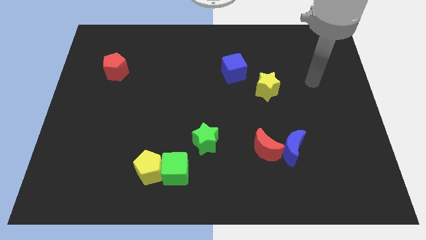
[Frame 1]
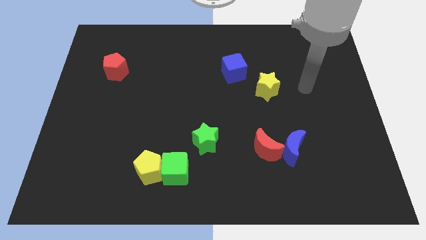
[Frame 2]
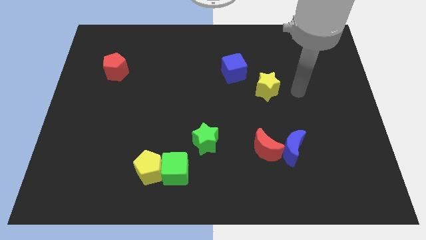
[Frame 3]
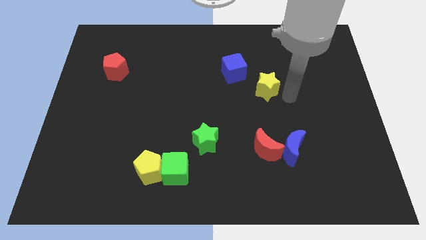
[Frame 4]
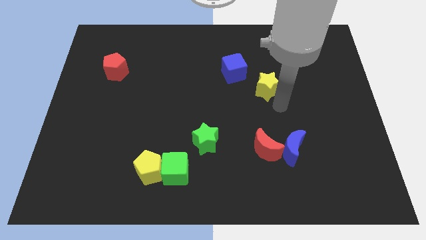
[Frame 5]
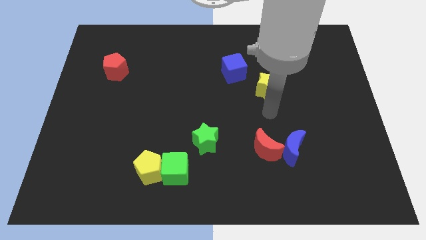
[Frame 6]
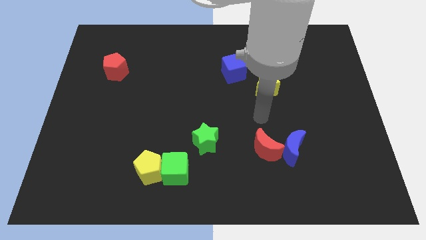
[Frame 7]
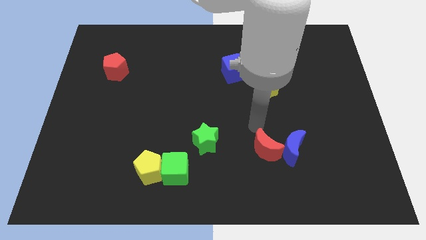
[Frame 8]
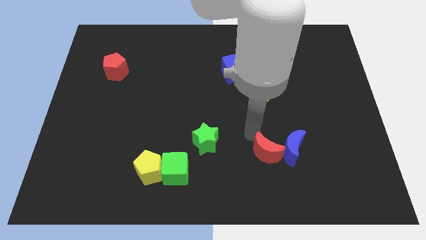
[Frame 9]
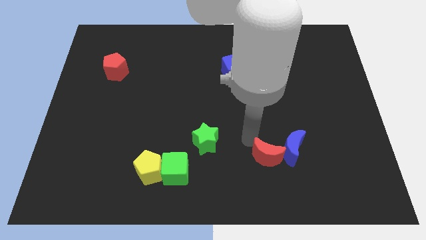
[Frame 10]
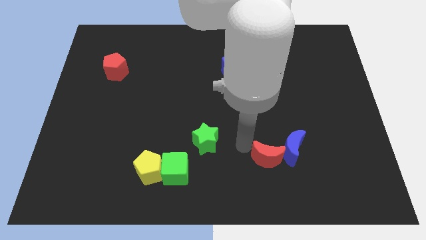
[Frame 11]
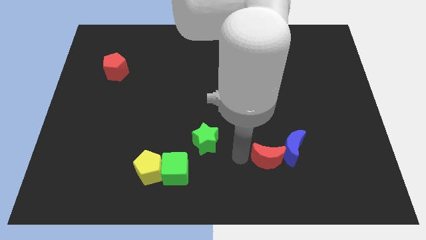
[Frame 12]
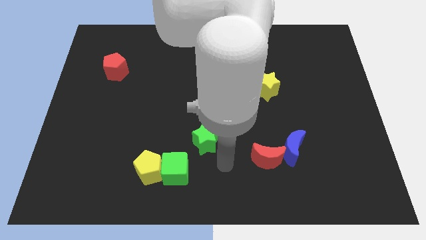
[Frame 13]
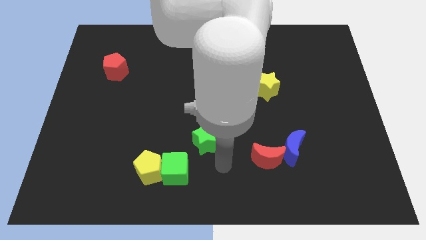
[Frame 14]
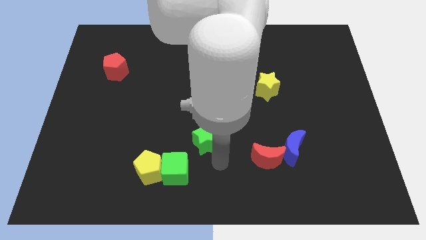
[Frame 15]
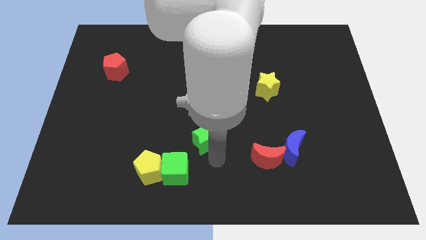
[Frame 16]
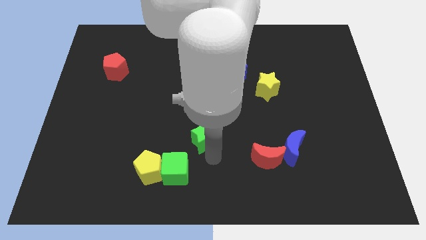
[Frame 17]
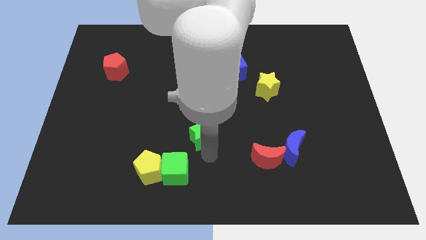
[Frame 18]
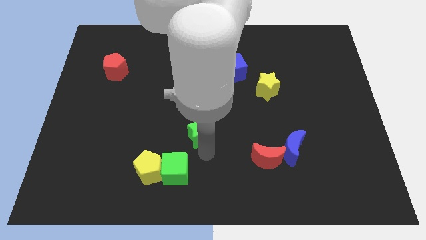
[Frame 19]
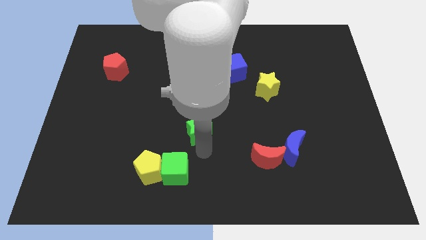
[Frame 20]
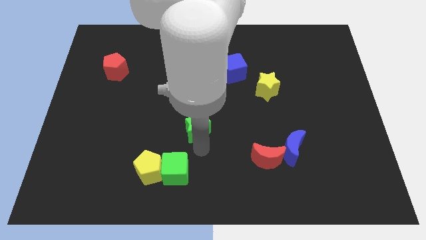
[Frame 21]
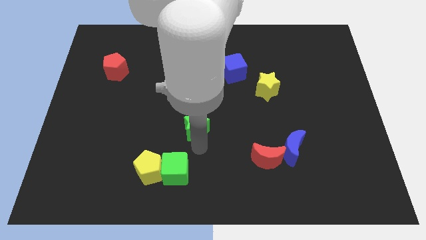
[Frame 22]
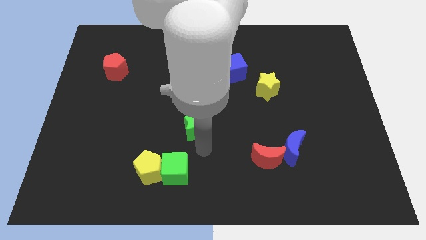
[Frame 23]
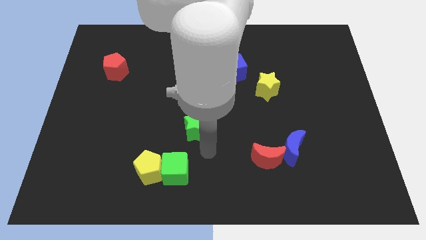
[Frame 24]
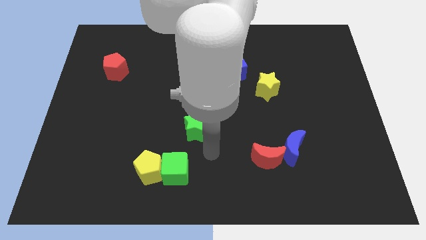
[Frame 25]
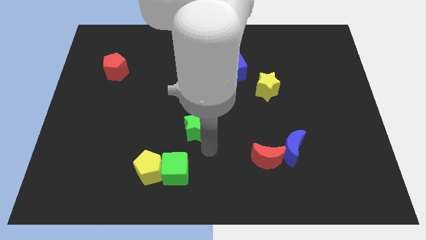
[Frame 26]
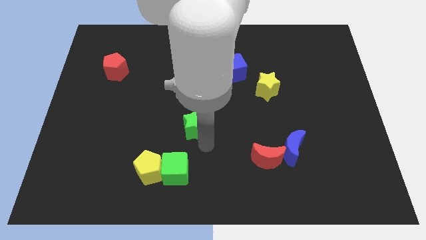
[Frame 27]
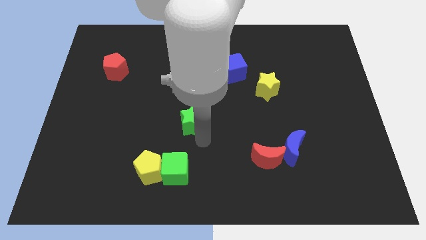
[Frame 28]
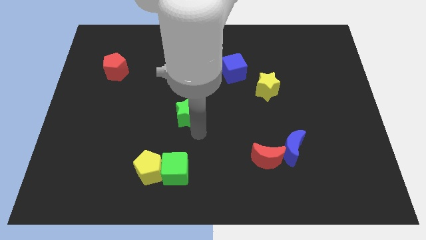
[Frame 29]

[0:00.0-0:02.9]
move the green star a little bit diagonally upwards and left

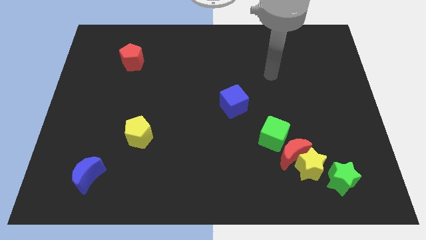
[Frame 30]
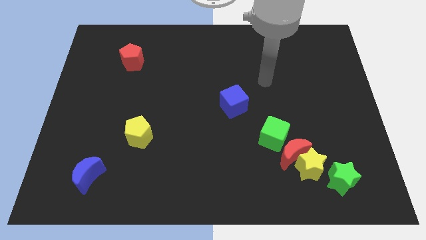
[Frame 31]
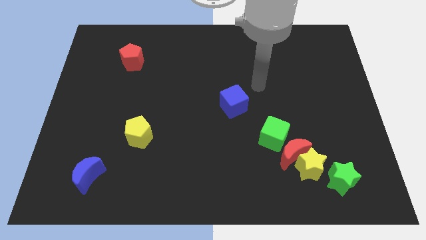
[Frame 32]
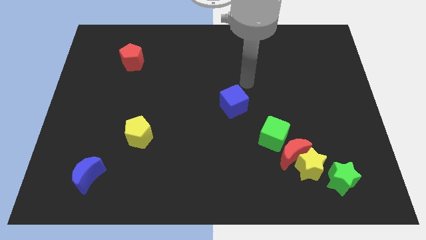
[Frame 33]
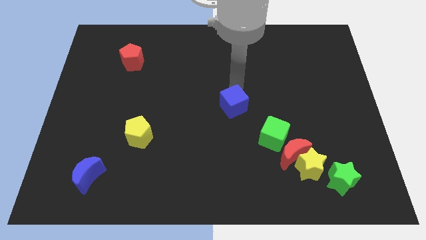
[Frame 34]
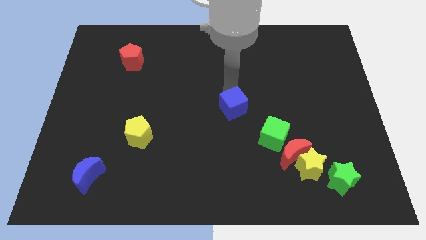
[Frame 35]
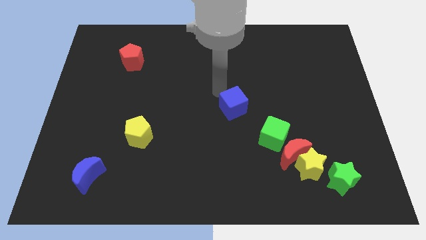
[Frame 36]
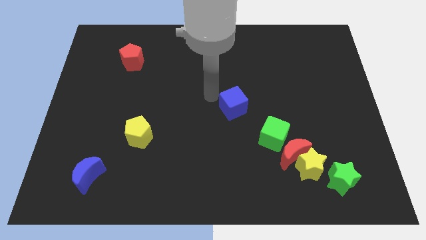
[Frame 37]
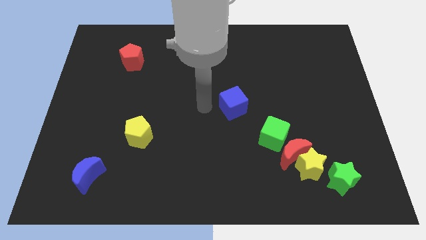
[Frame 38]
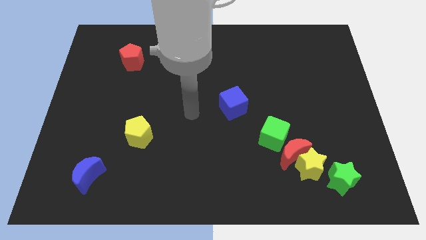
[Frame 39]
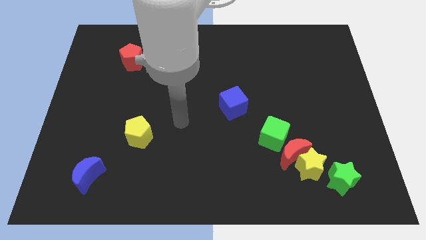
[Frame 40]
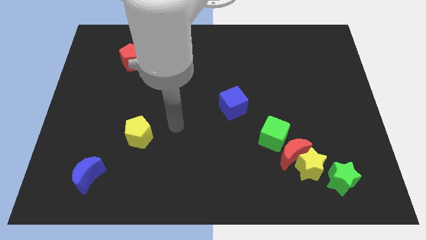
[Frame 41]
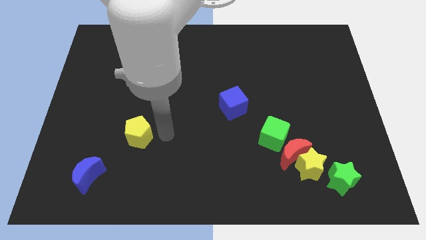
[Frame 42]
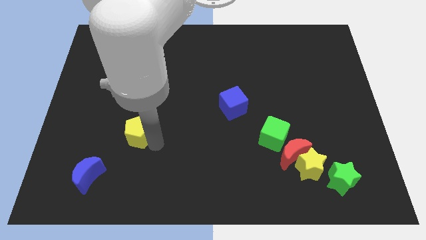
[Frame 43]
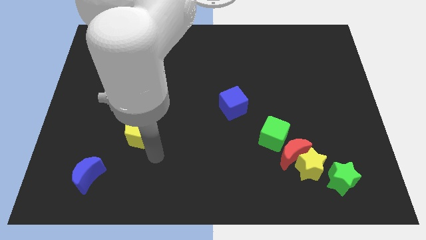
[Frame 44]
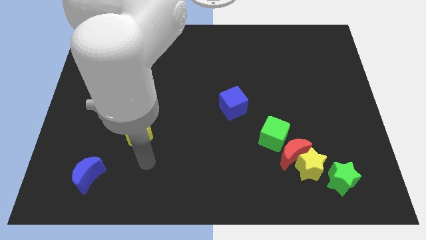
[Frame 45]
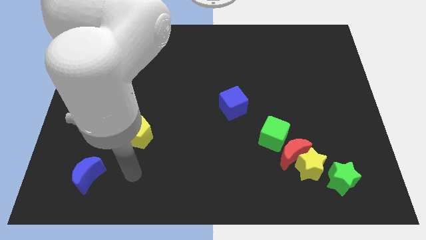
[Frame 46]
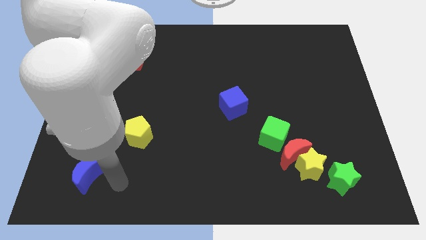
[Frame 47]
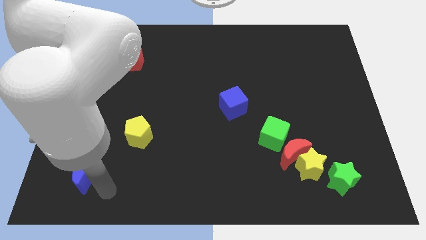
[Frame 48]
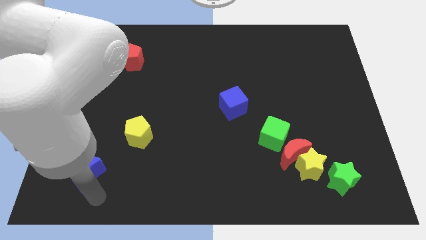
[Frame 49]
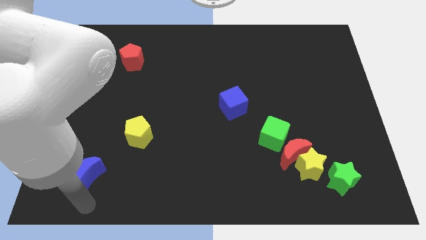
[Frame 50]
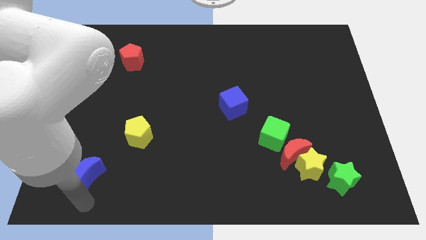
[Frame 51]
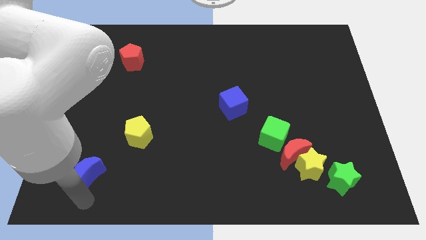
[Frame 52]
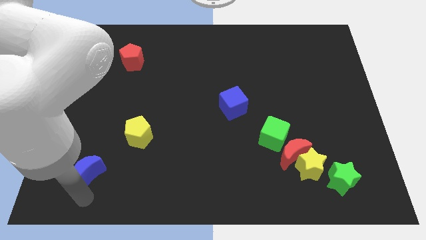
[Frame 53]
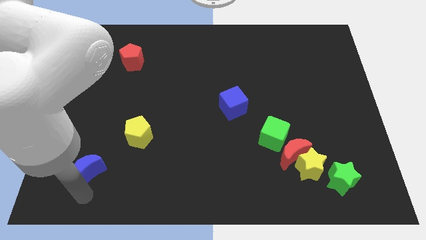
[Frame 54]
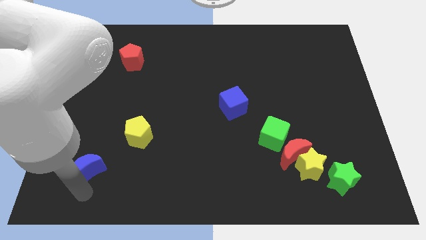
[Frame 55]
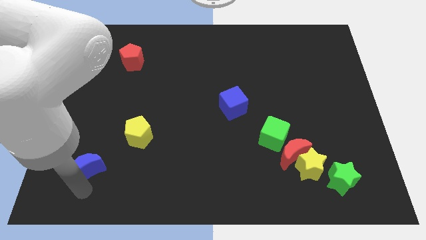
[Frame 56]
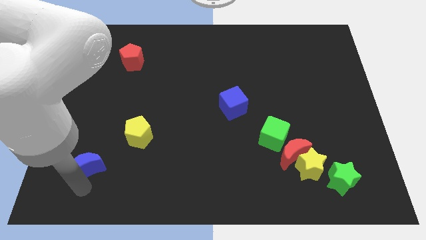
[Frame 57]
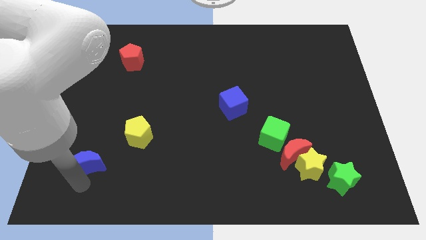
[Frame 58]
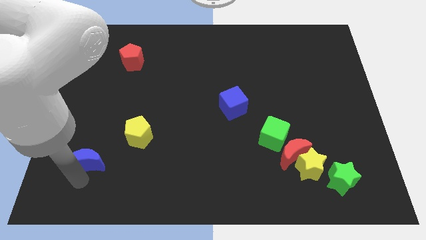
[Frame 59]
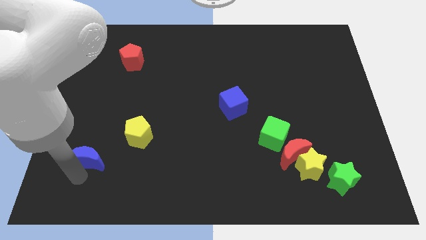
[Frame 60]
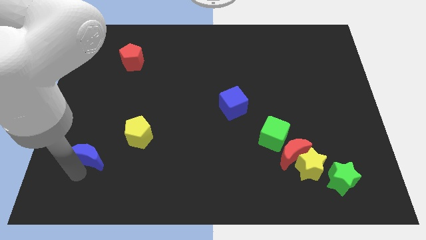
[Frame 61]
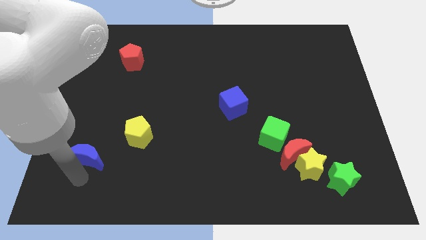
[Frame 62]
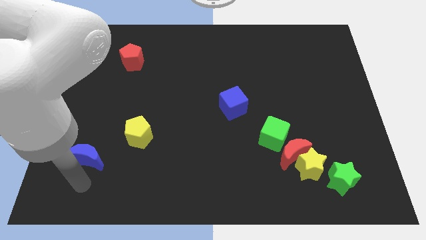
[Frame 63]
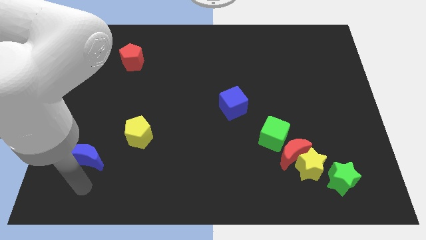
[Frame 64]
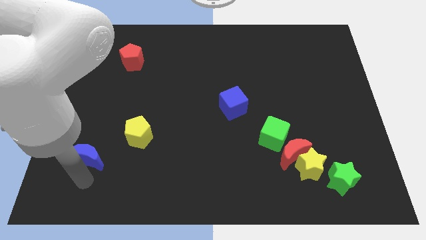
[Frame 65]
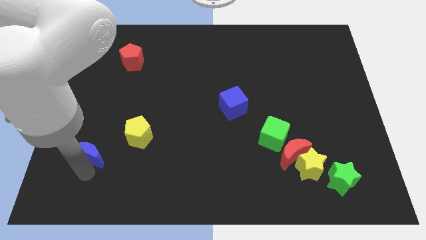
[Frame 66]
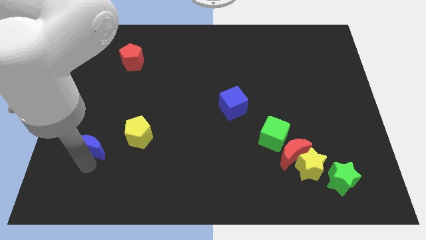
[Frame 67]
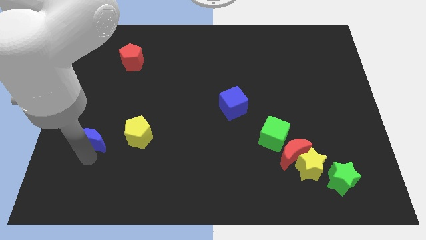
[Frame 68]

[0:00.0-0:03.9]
slide the blue moon slightly up

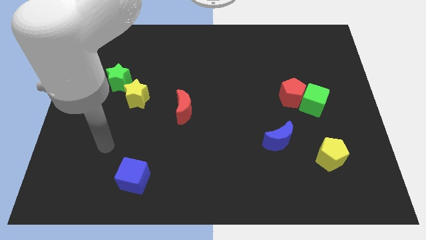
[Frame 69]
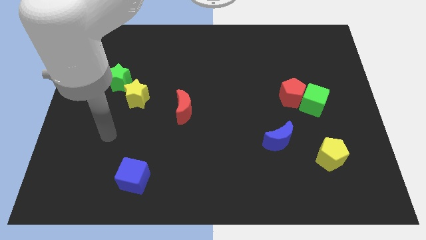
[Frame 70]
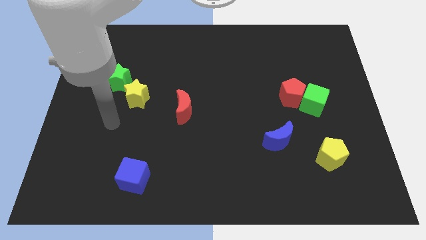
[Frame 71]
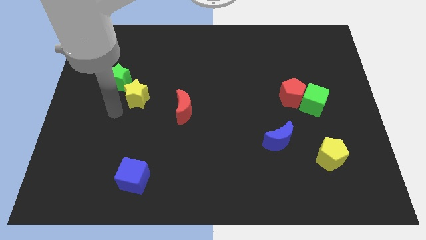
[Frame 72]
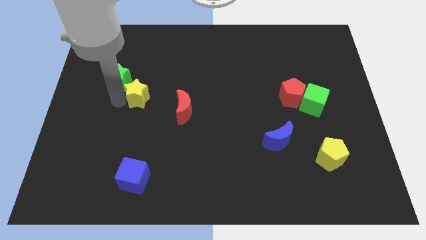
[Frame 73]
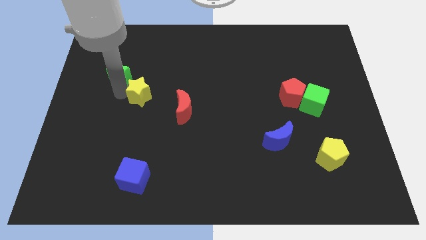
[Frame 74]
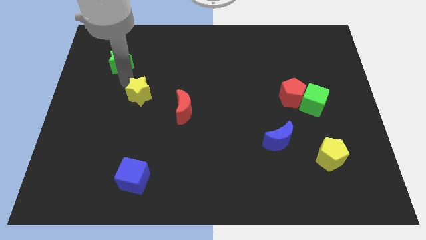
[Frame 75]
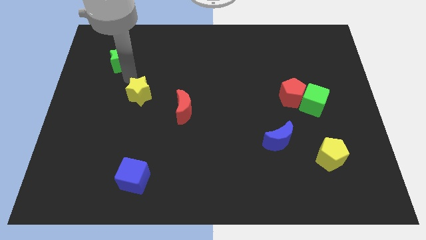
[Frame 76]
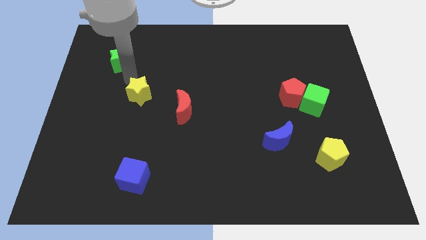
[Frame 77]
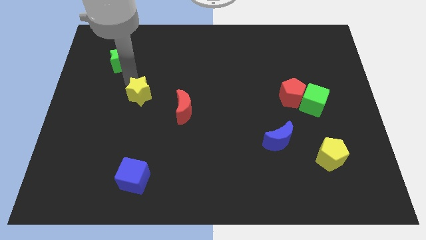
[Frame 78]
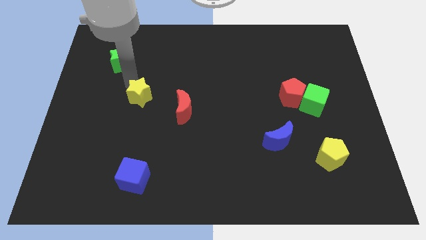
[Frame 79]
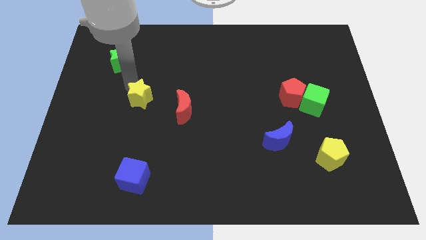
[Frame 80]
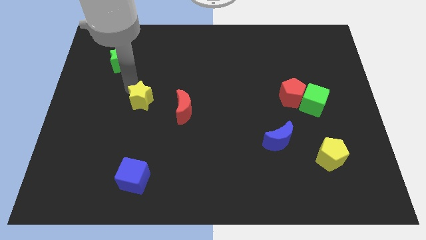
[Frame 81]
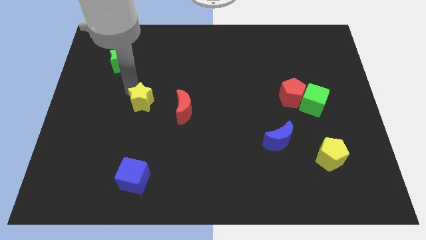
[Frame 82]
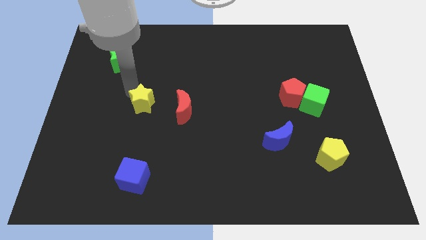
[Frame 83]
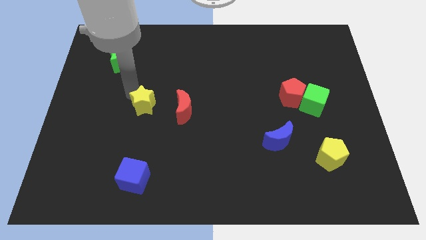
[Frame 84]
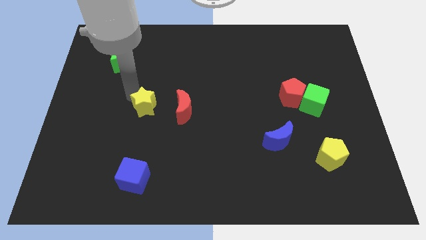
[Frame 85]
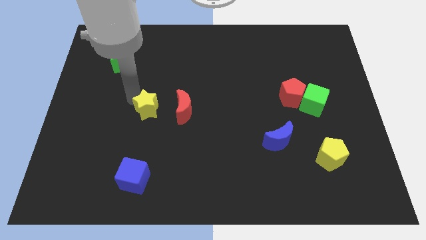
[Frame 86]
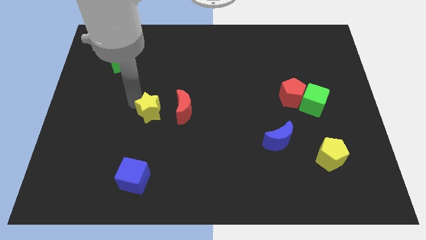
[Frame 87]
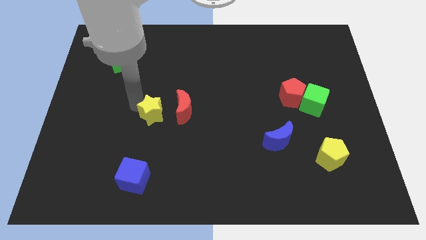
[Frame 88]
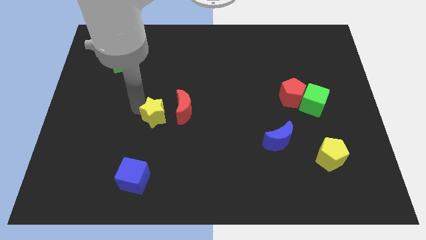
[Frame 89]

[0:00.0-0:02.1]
slightly slide the yellow star downwards and right
